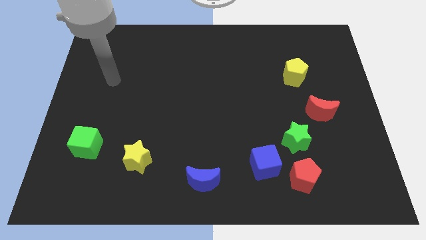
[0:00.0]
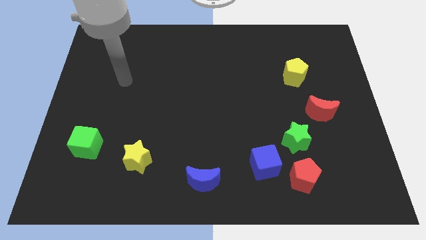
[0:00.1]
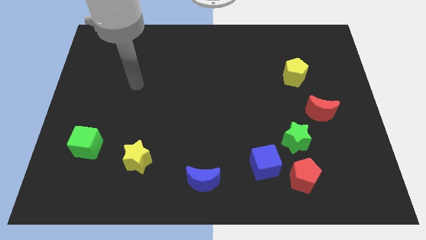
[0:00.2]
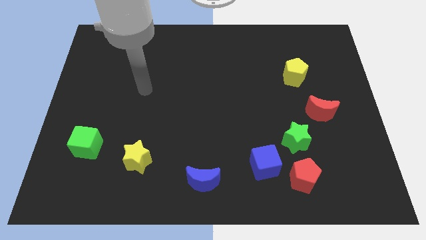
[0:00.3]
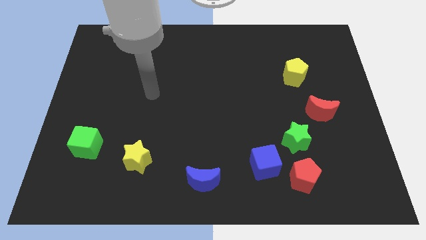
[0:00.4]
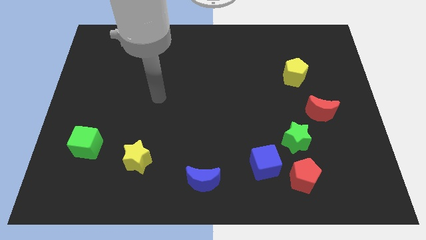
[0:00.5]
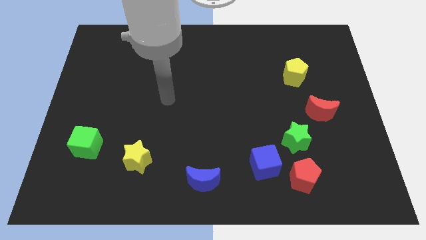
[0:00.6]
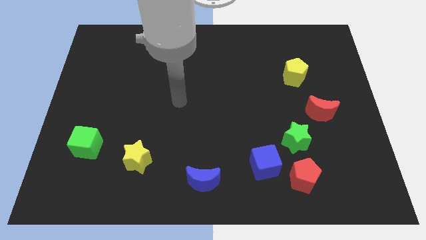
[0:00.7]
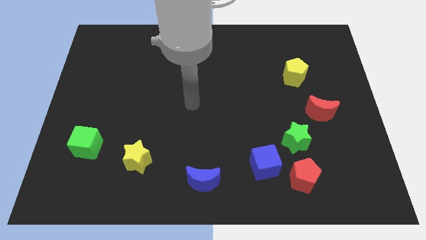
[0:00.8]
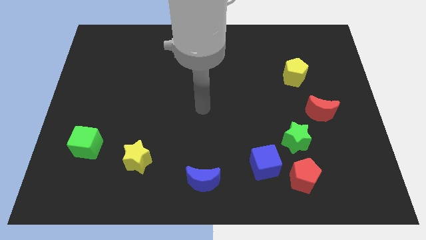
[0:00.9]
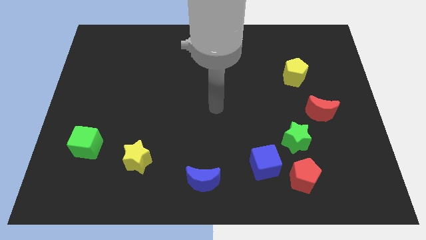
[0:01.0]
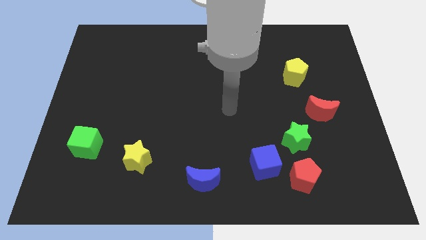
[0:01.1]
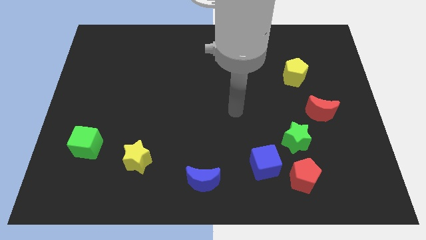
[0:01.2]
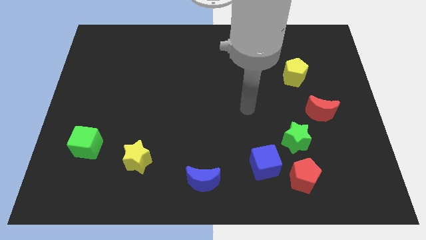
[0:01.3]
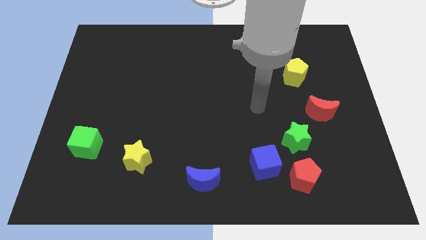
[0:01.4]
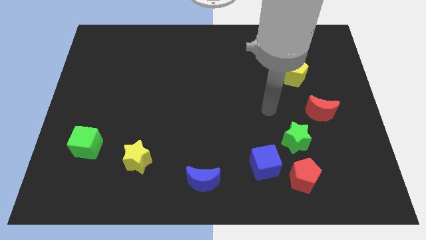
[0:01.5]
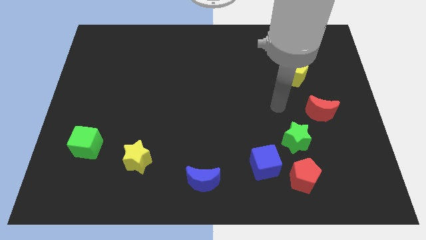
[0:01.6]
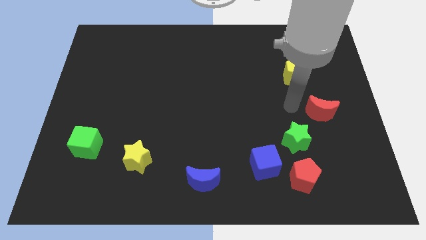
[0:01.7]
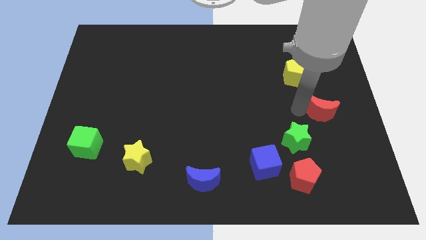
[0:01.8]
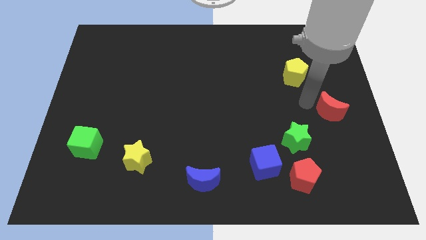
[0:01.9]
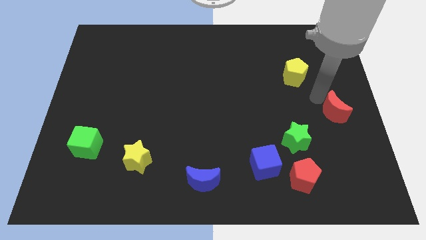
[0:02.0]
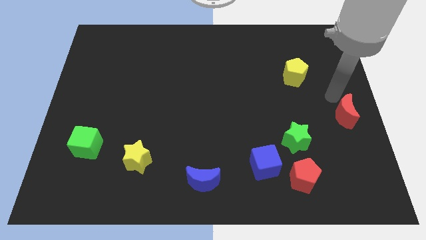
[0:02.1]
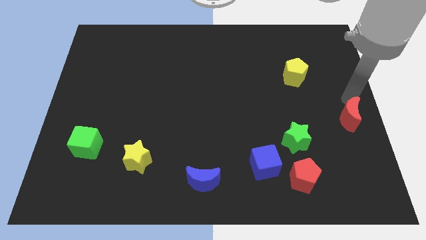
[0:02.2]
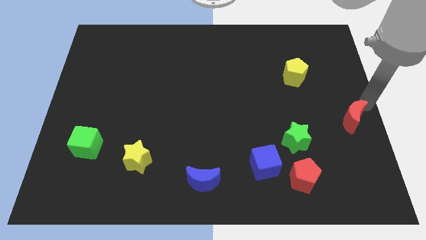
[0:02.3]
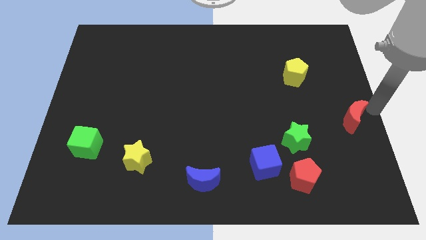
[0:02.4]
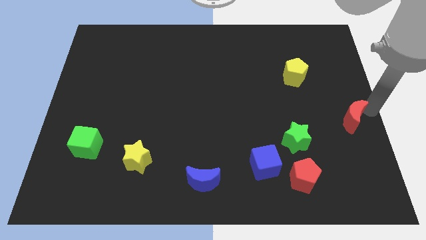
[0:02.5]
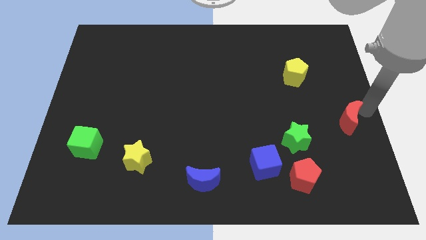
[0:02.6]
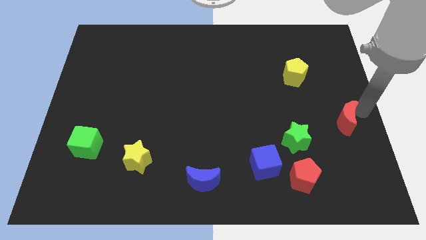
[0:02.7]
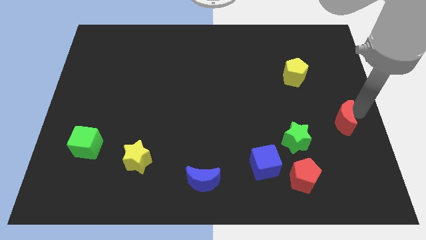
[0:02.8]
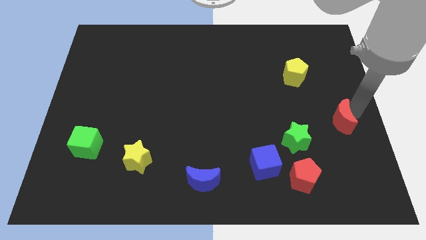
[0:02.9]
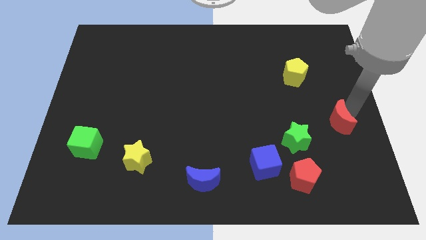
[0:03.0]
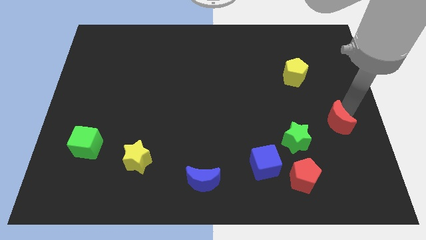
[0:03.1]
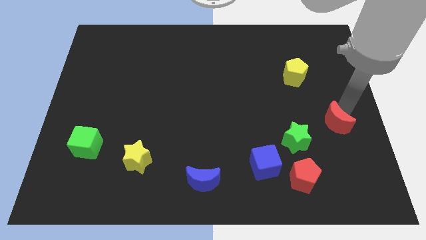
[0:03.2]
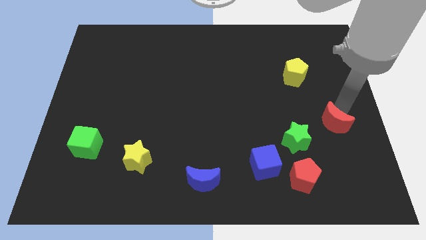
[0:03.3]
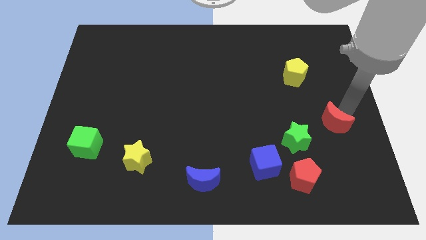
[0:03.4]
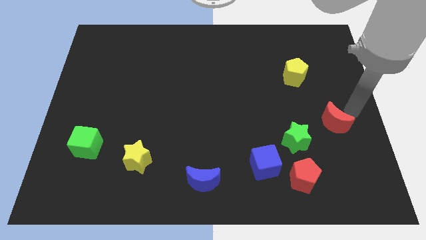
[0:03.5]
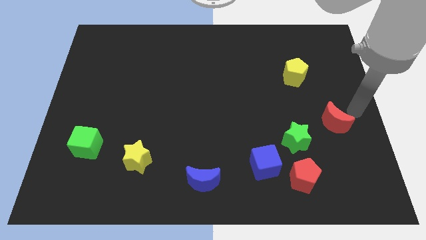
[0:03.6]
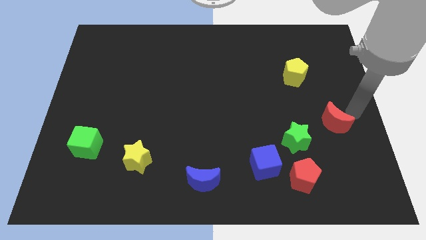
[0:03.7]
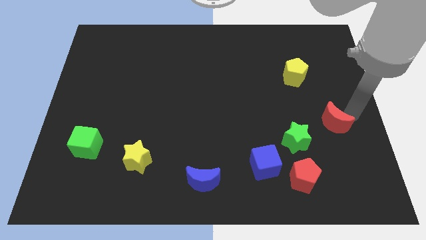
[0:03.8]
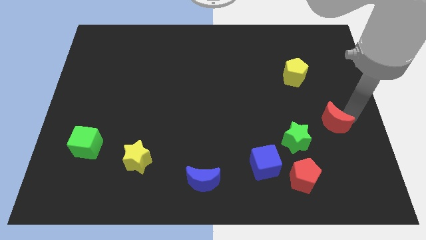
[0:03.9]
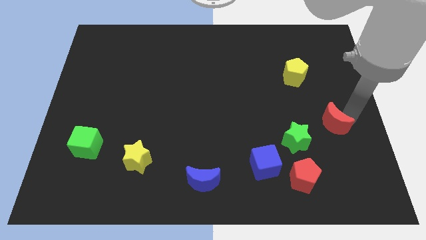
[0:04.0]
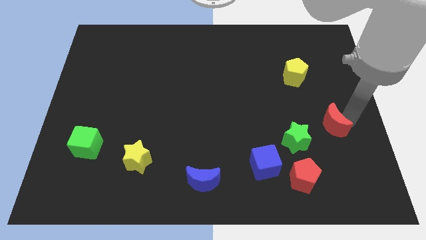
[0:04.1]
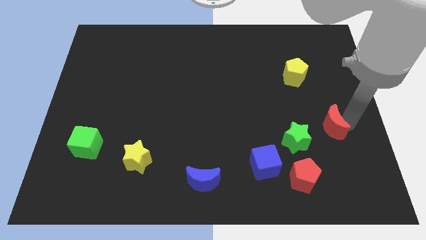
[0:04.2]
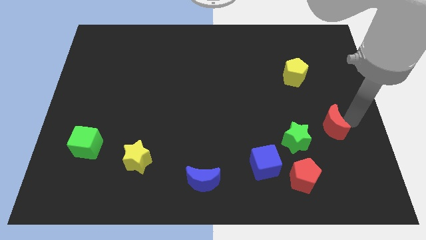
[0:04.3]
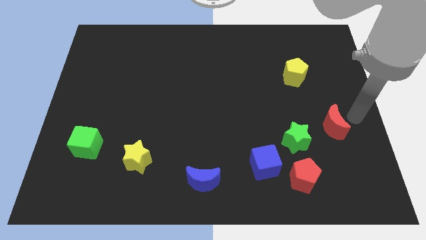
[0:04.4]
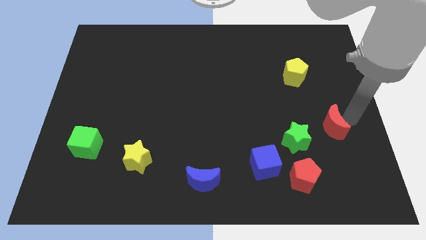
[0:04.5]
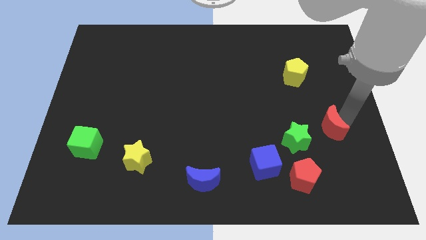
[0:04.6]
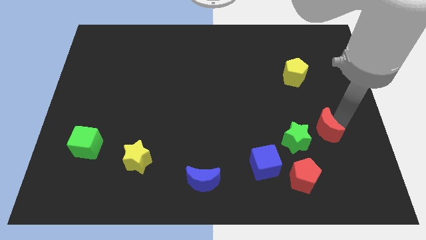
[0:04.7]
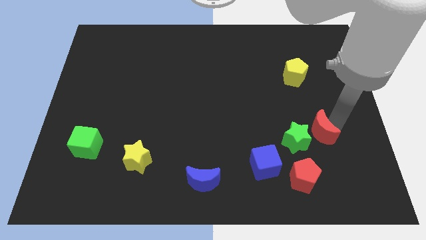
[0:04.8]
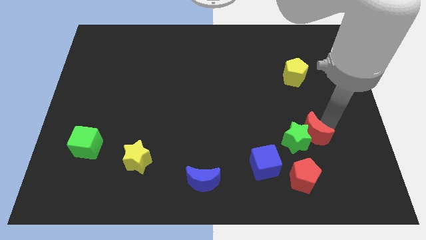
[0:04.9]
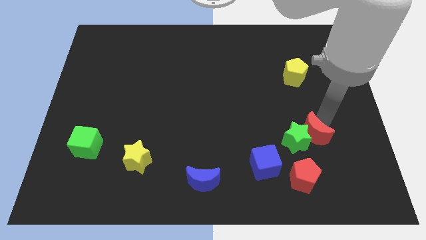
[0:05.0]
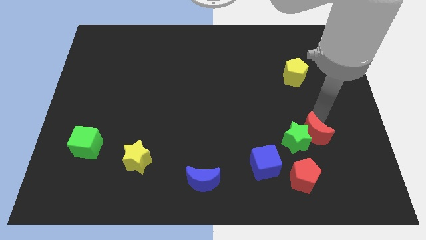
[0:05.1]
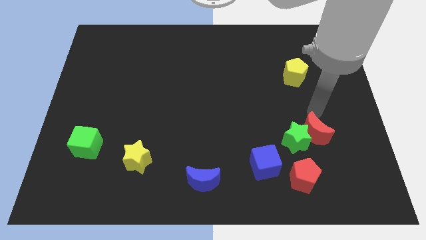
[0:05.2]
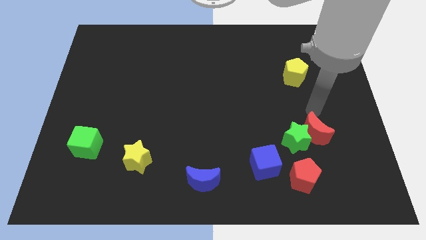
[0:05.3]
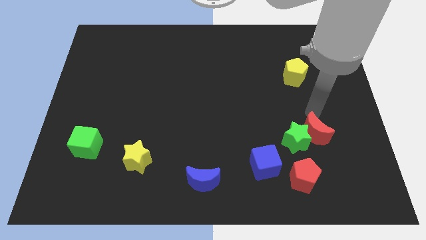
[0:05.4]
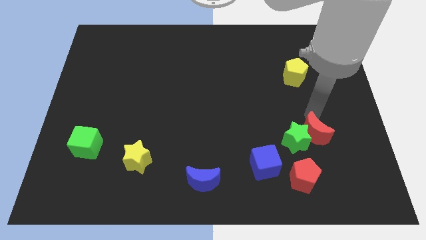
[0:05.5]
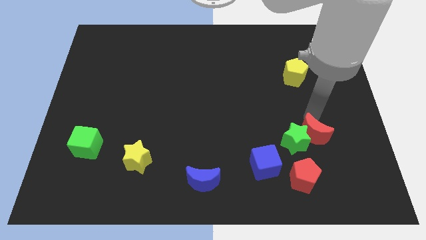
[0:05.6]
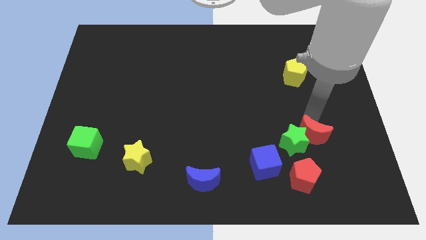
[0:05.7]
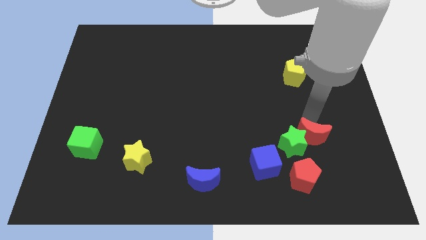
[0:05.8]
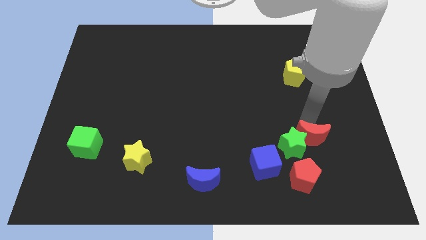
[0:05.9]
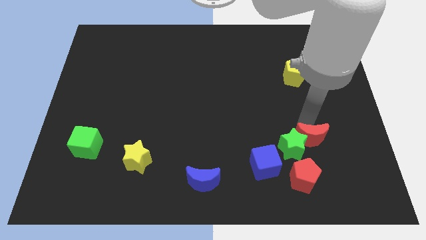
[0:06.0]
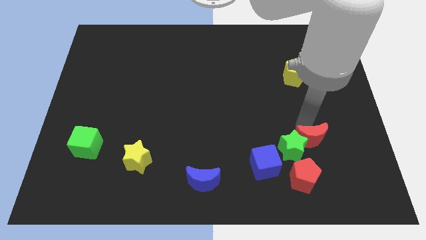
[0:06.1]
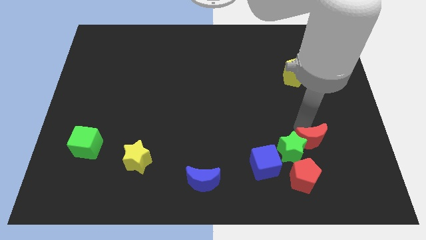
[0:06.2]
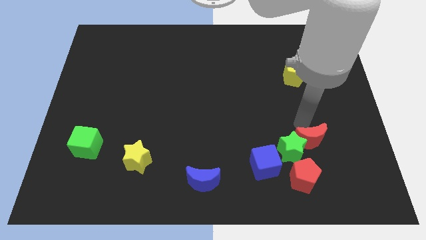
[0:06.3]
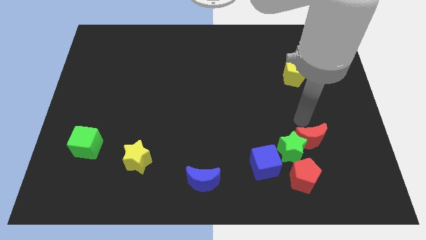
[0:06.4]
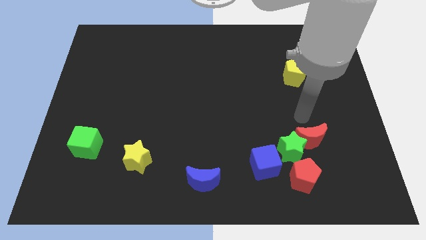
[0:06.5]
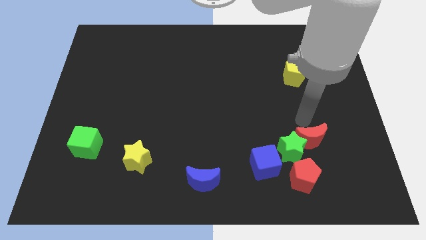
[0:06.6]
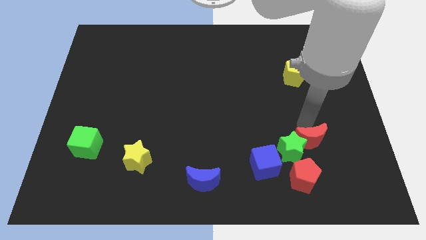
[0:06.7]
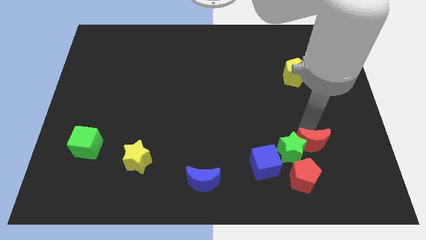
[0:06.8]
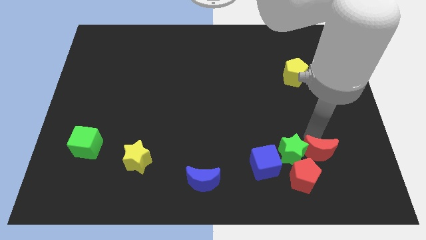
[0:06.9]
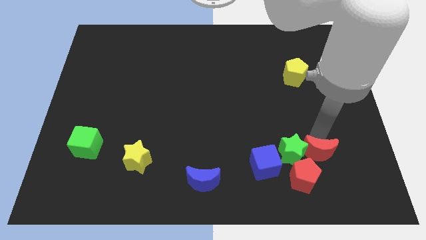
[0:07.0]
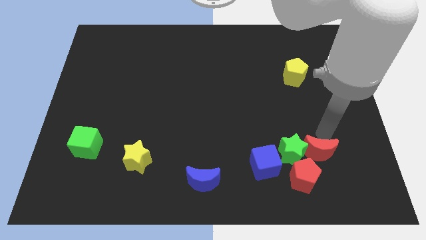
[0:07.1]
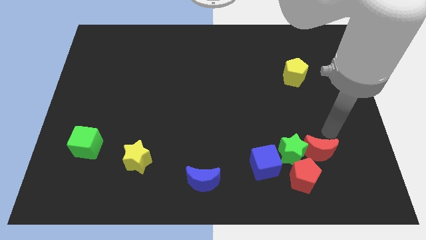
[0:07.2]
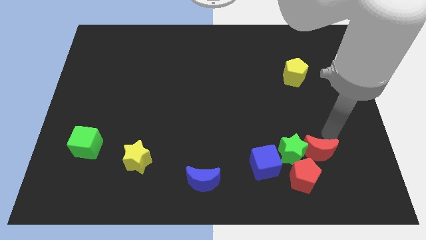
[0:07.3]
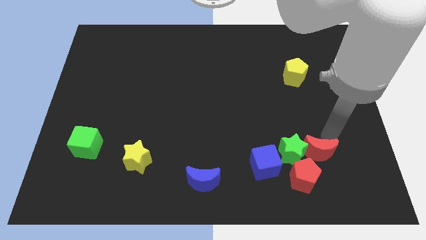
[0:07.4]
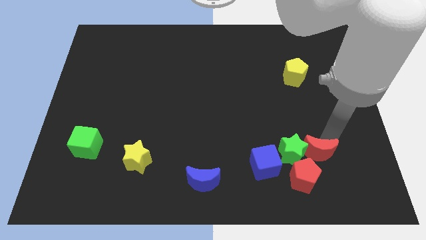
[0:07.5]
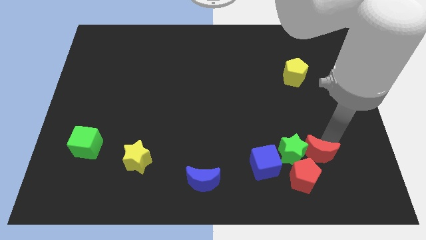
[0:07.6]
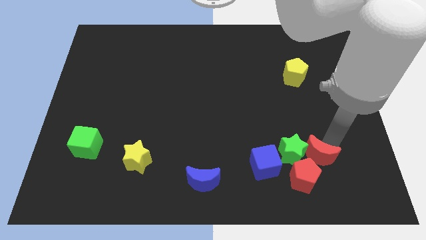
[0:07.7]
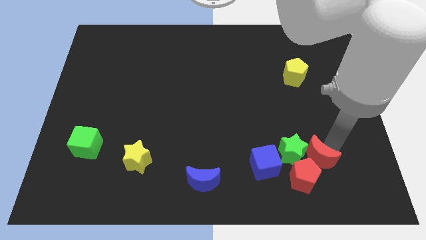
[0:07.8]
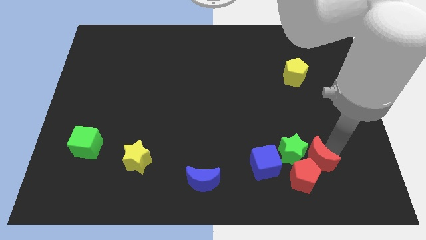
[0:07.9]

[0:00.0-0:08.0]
push the red moon close to the red pentagon
